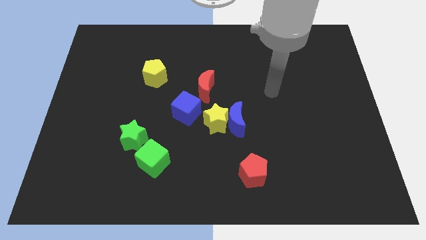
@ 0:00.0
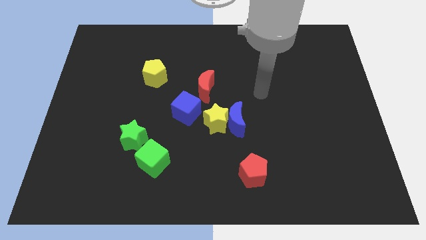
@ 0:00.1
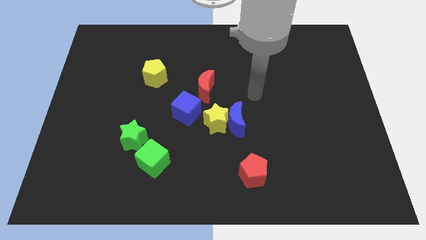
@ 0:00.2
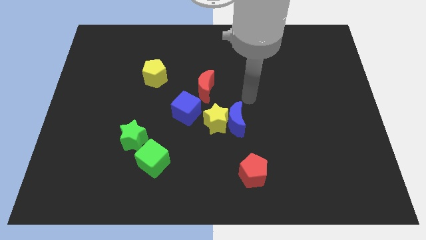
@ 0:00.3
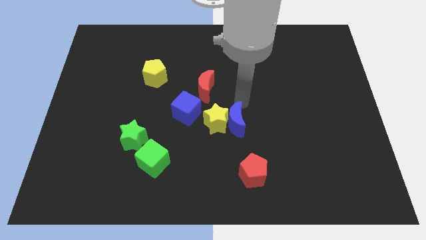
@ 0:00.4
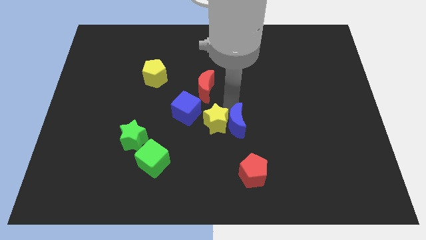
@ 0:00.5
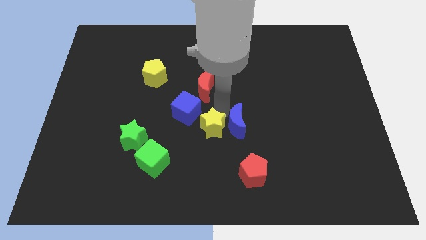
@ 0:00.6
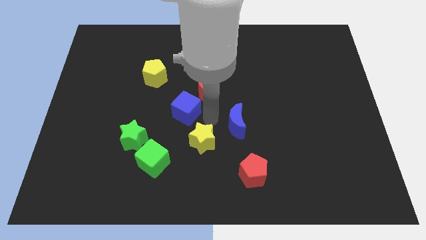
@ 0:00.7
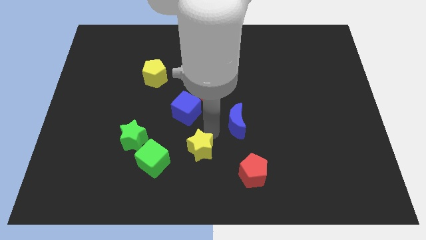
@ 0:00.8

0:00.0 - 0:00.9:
move the blue moon away from the yellow star

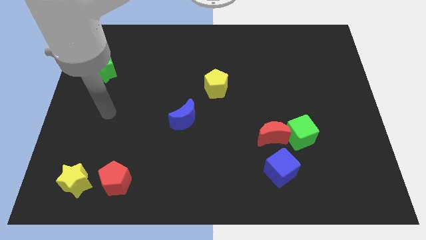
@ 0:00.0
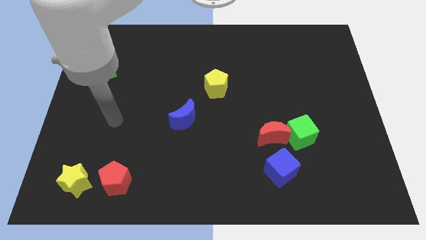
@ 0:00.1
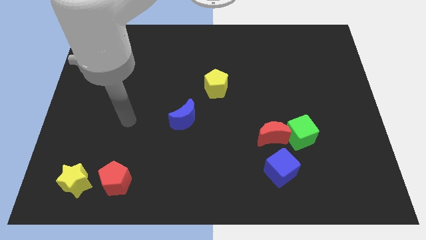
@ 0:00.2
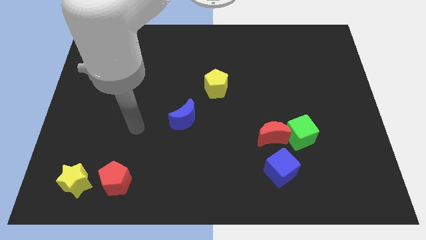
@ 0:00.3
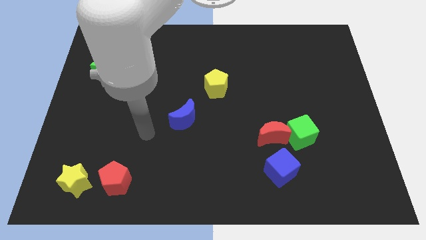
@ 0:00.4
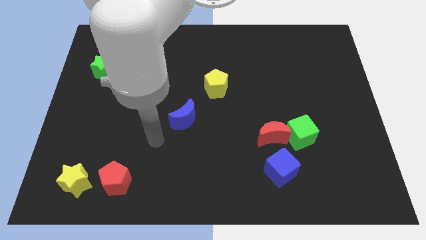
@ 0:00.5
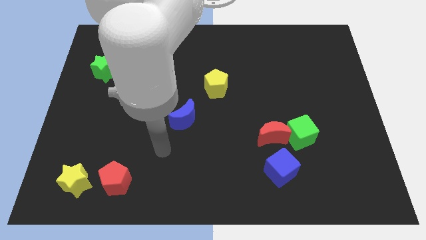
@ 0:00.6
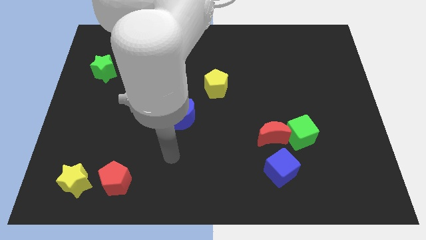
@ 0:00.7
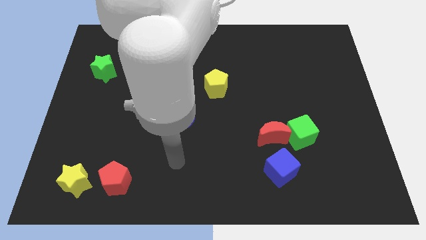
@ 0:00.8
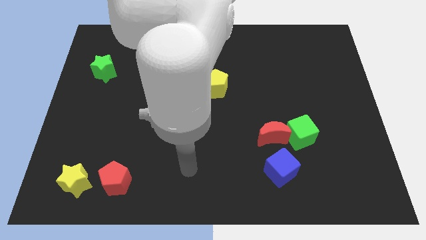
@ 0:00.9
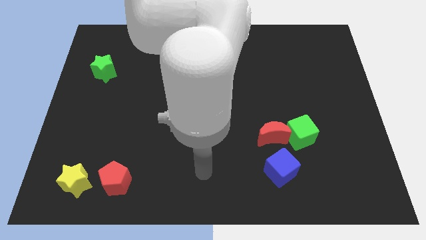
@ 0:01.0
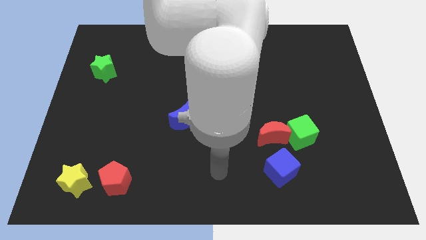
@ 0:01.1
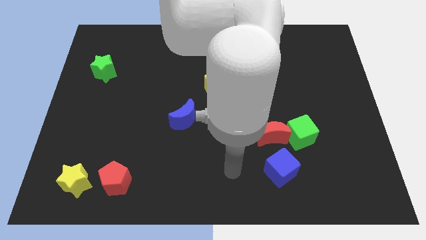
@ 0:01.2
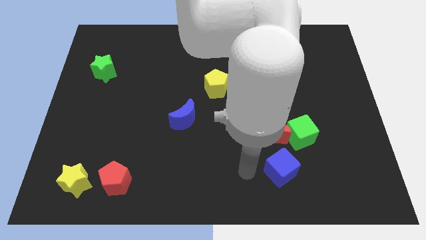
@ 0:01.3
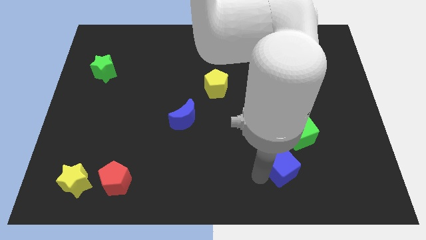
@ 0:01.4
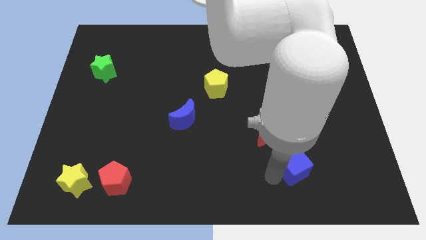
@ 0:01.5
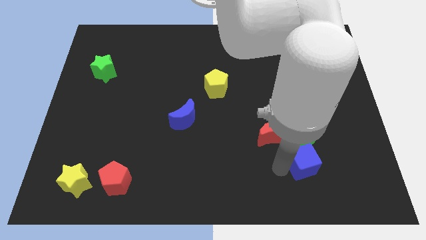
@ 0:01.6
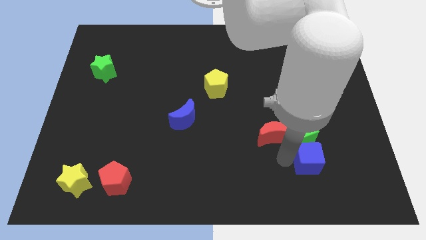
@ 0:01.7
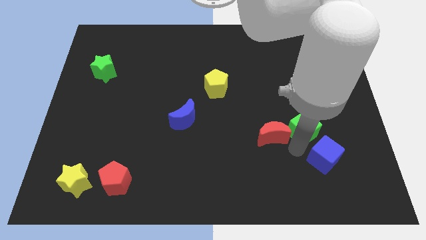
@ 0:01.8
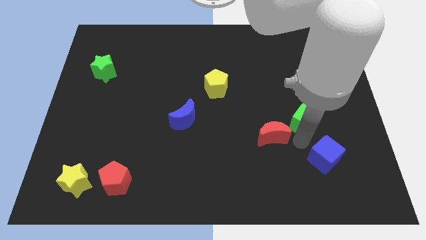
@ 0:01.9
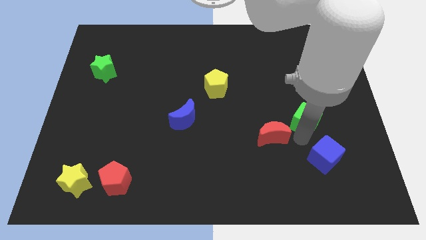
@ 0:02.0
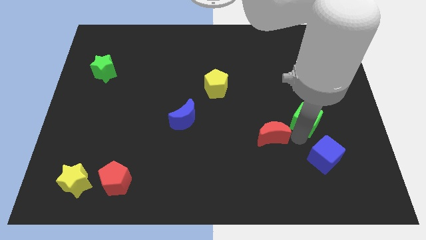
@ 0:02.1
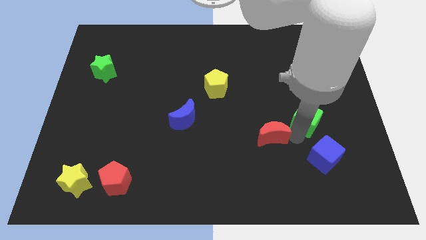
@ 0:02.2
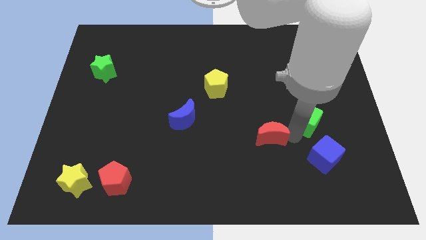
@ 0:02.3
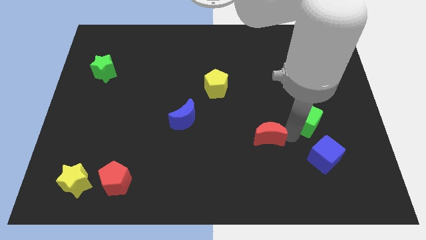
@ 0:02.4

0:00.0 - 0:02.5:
separate the red moon from the green cube and blue cube

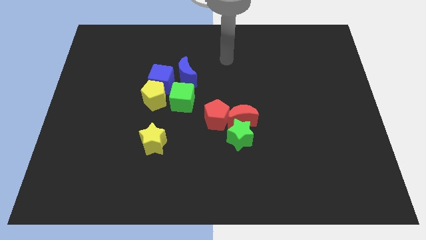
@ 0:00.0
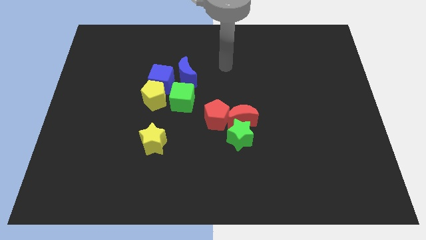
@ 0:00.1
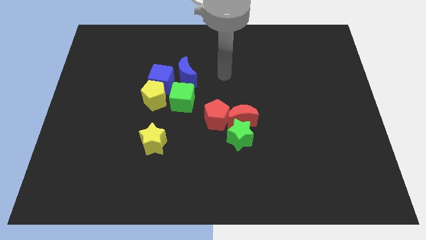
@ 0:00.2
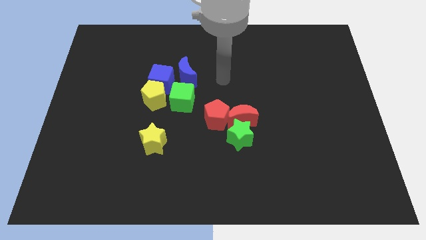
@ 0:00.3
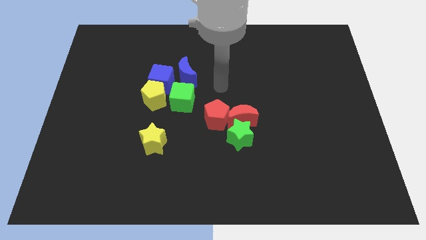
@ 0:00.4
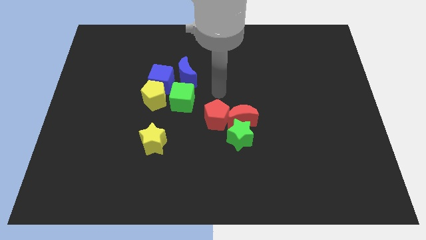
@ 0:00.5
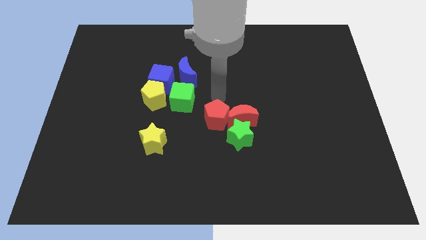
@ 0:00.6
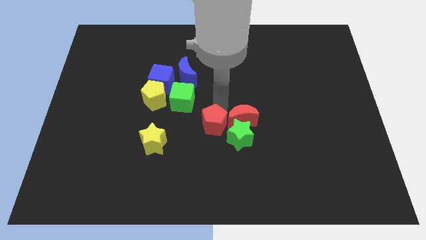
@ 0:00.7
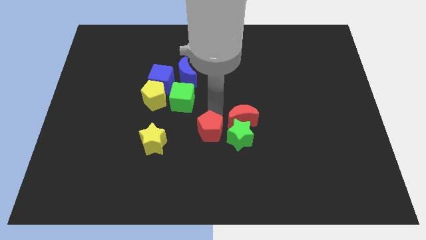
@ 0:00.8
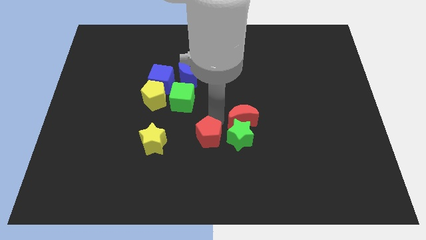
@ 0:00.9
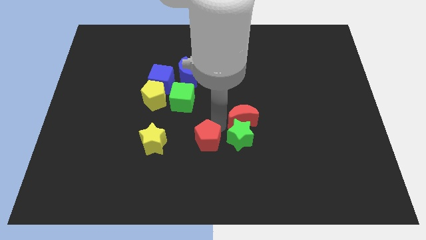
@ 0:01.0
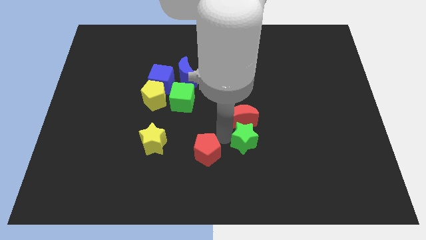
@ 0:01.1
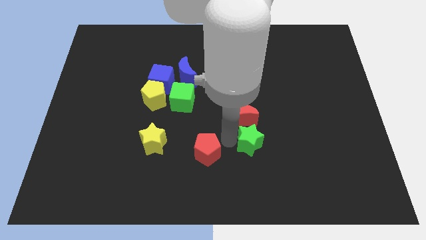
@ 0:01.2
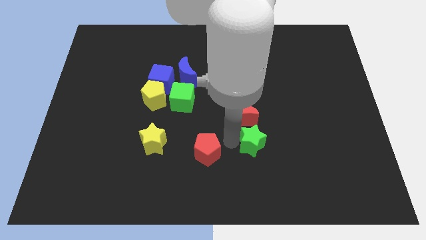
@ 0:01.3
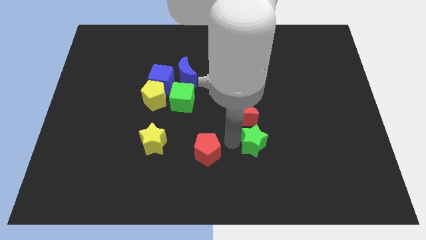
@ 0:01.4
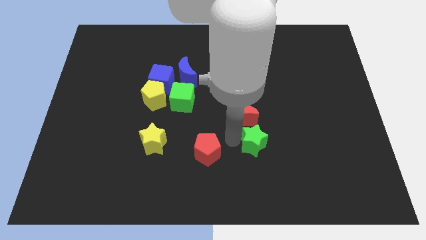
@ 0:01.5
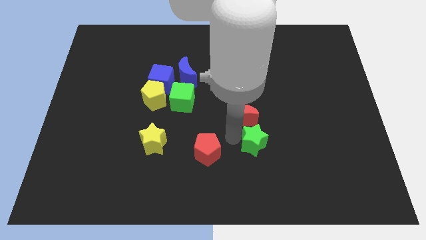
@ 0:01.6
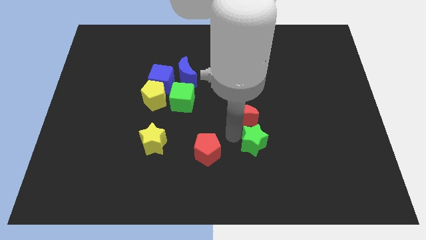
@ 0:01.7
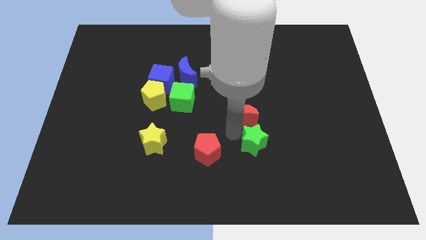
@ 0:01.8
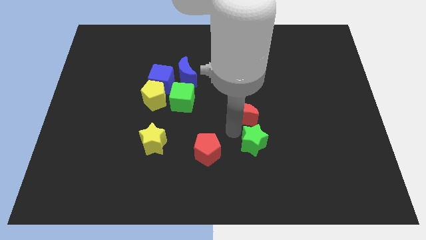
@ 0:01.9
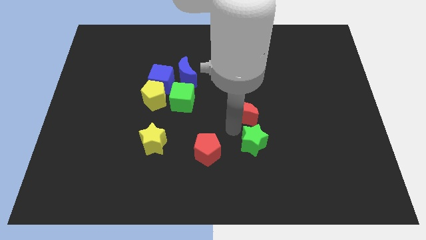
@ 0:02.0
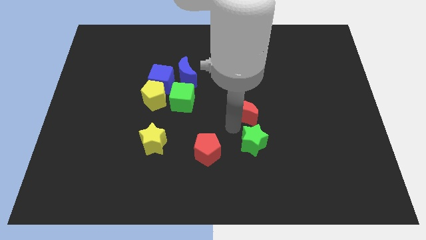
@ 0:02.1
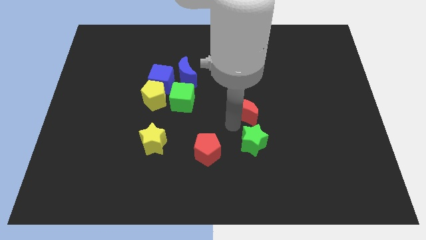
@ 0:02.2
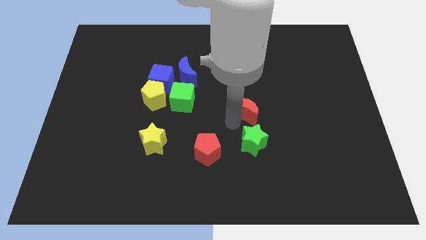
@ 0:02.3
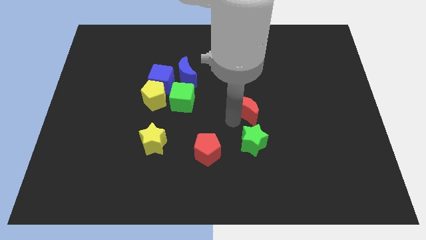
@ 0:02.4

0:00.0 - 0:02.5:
separate the red moon from the green star and red pentagon

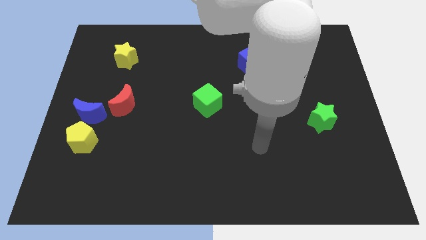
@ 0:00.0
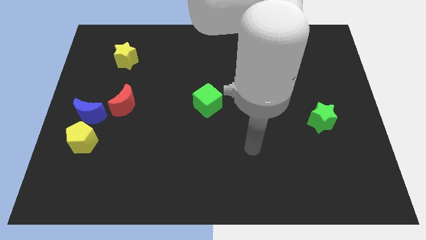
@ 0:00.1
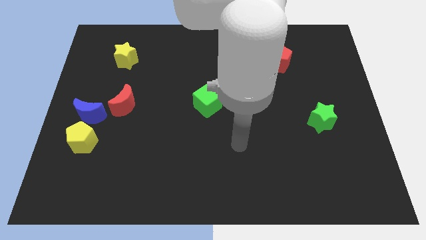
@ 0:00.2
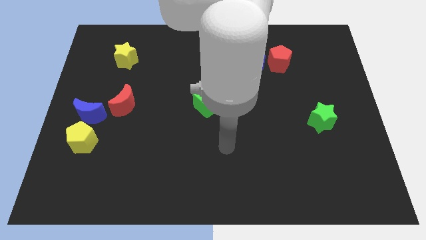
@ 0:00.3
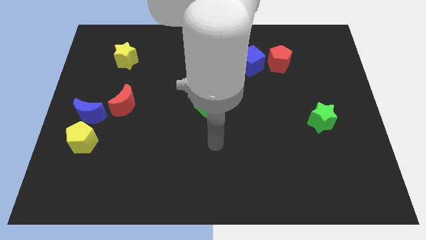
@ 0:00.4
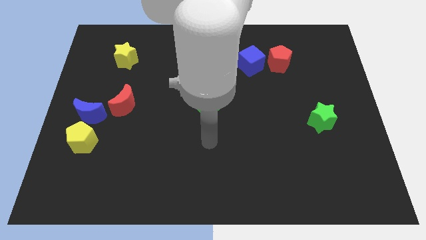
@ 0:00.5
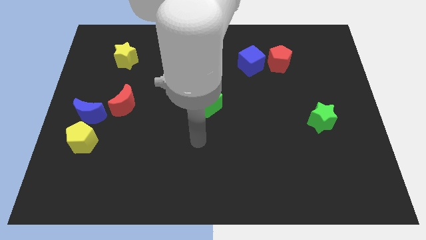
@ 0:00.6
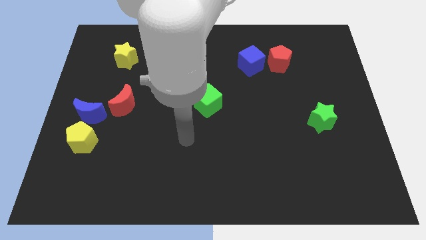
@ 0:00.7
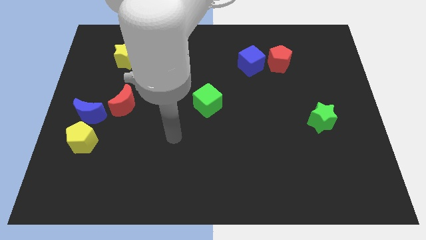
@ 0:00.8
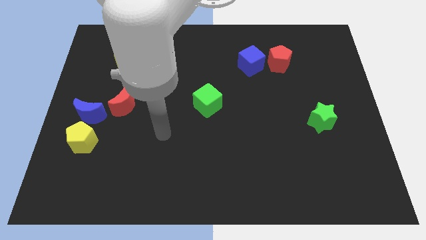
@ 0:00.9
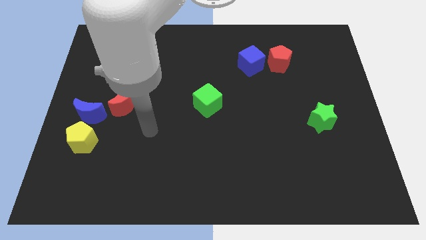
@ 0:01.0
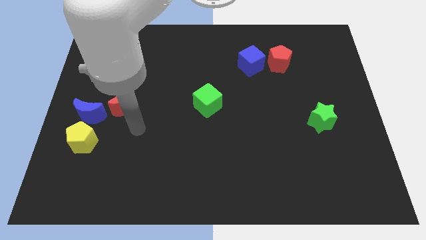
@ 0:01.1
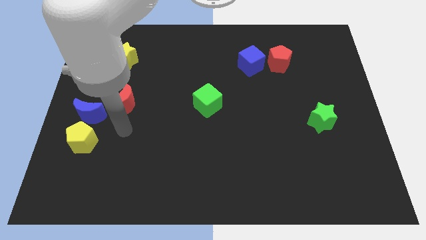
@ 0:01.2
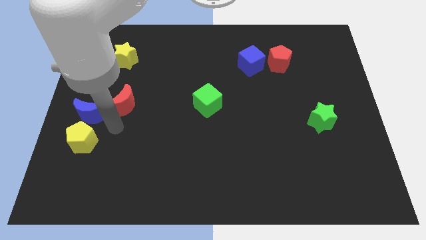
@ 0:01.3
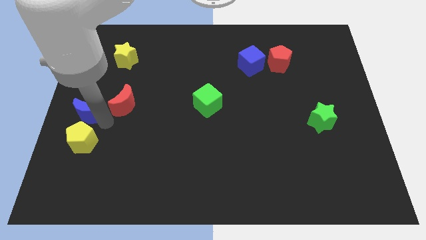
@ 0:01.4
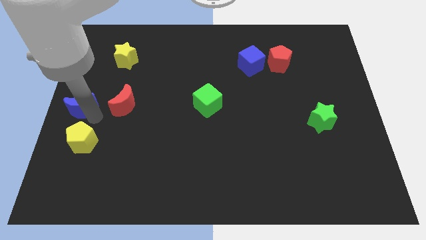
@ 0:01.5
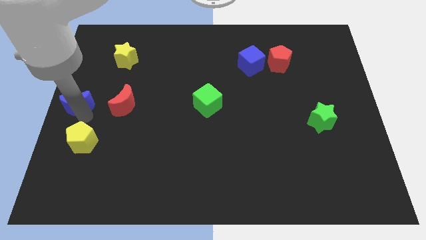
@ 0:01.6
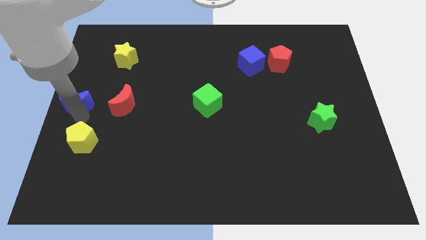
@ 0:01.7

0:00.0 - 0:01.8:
pull the yellow pentagon apart from the blue moon

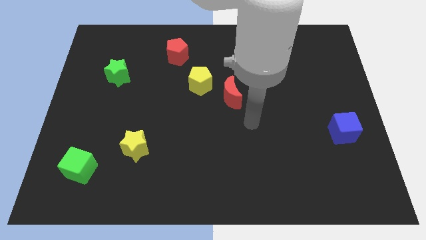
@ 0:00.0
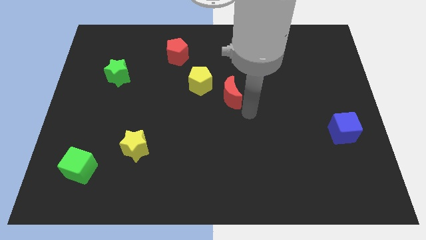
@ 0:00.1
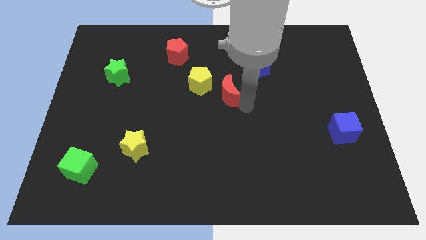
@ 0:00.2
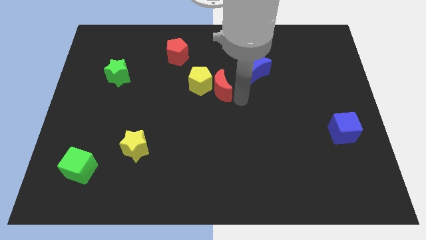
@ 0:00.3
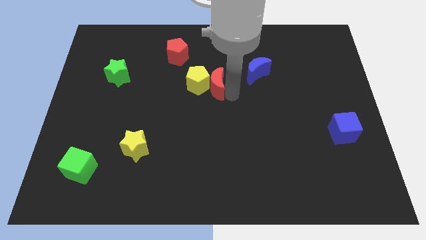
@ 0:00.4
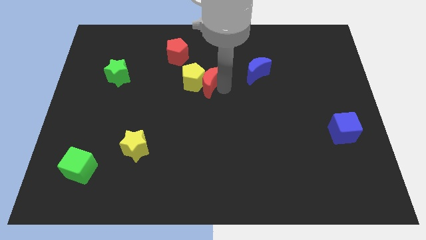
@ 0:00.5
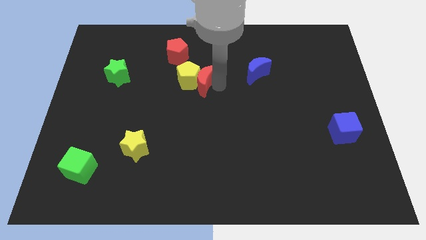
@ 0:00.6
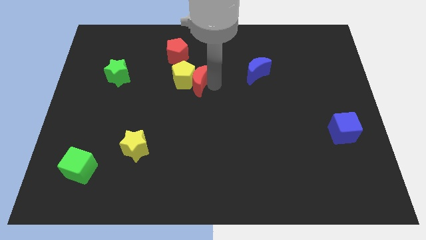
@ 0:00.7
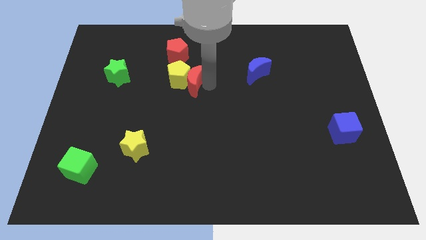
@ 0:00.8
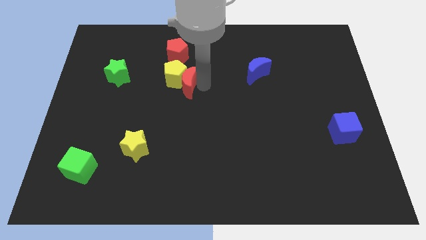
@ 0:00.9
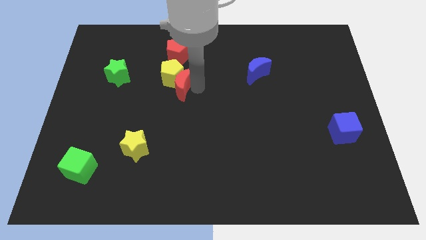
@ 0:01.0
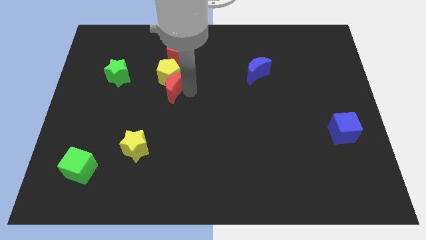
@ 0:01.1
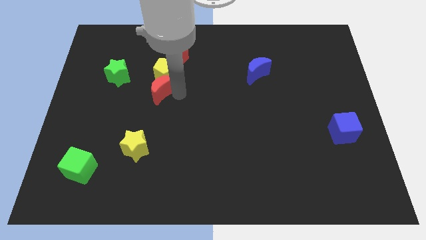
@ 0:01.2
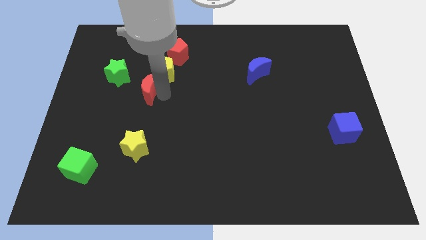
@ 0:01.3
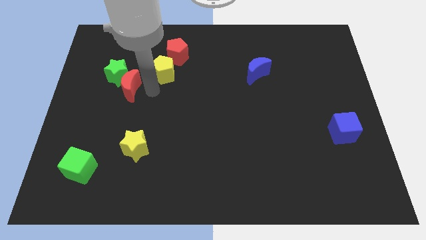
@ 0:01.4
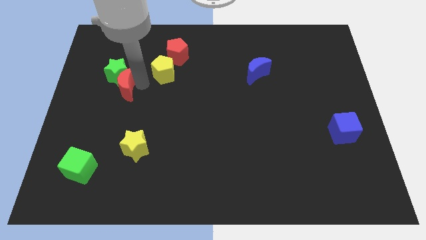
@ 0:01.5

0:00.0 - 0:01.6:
pull the yellow pentagon apart from the red moon

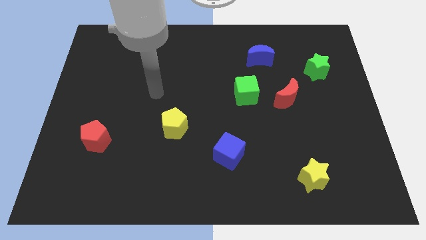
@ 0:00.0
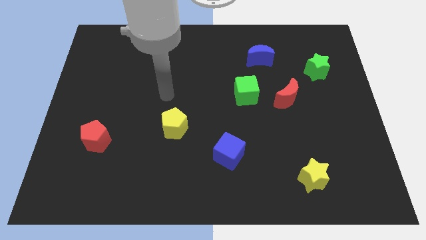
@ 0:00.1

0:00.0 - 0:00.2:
move the red moon away from the green cube
